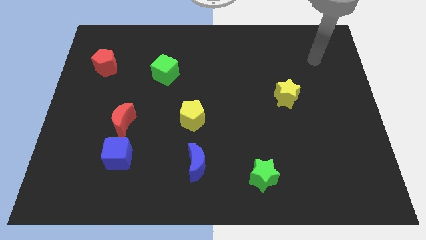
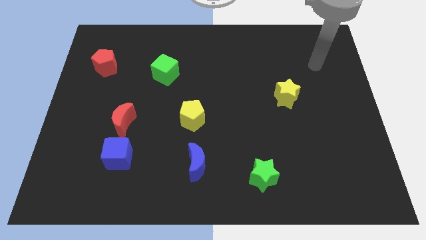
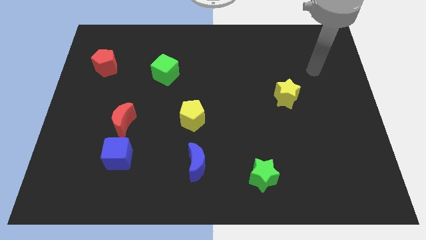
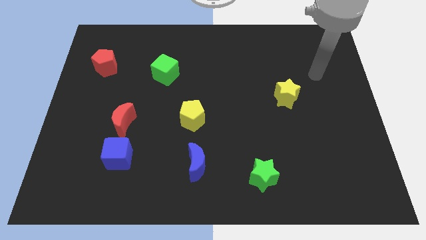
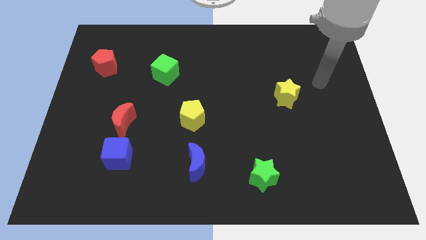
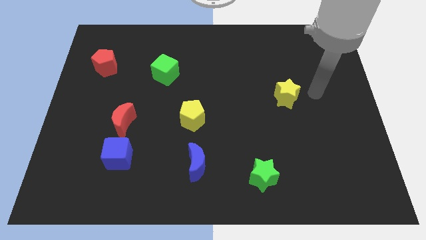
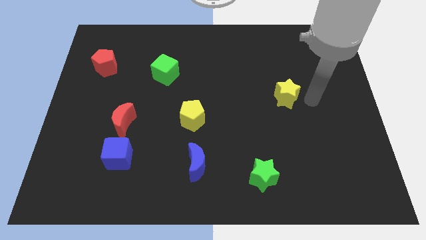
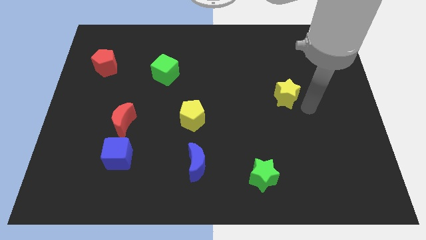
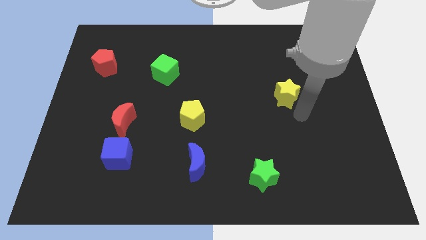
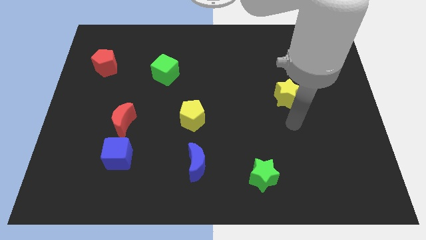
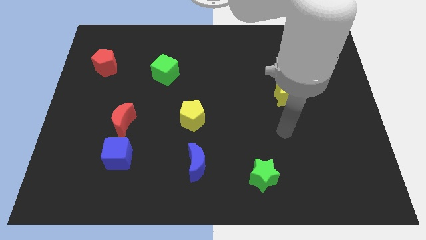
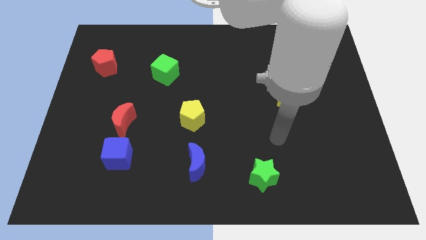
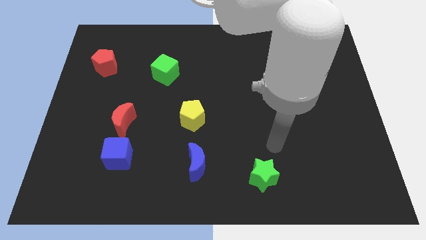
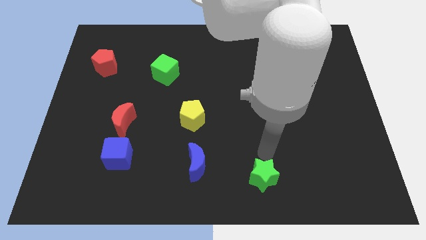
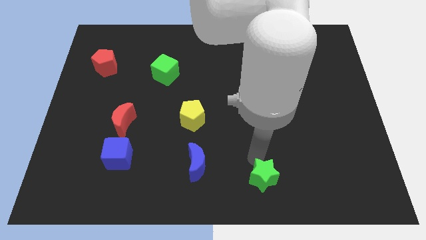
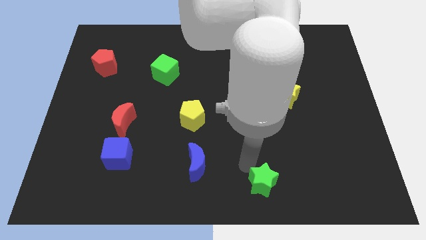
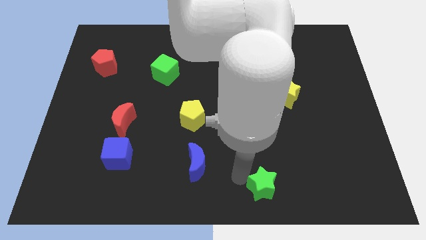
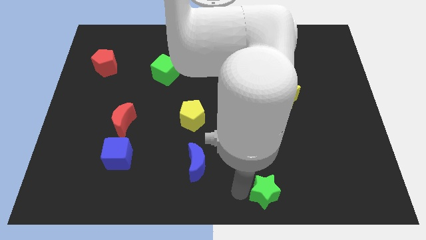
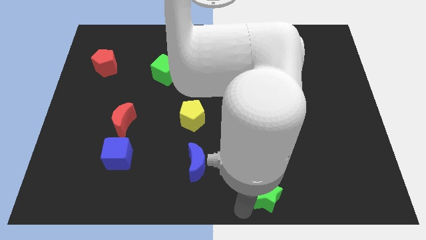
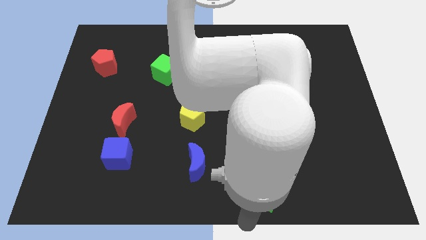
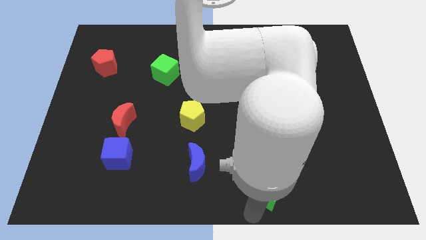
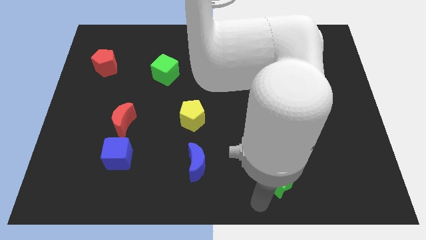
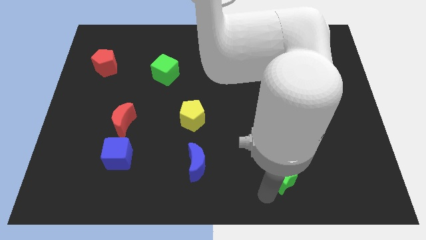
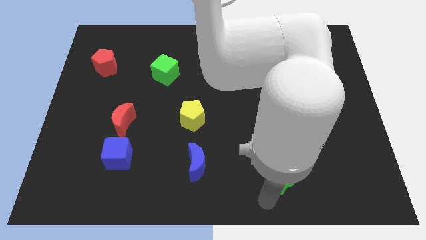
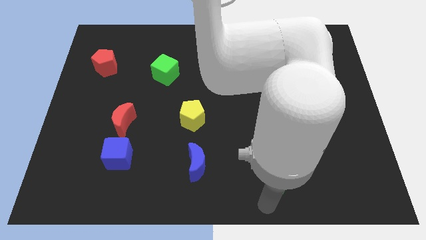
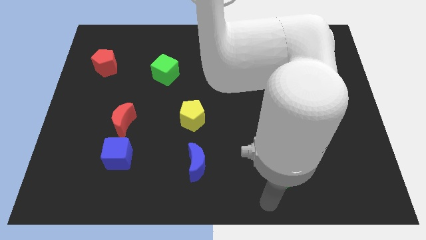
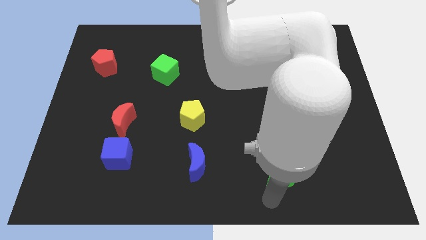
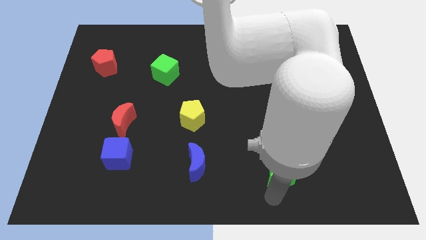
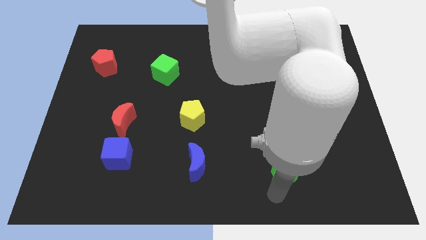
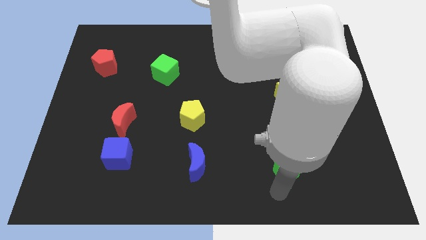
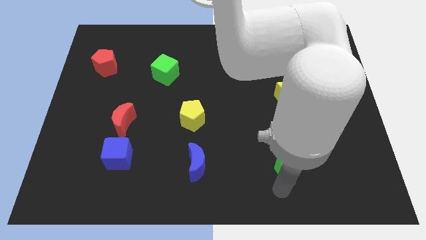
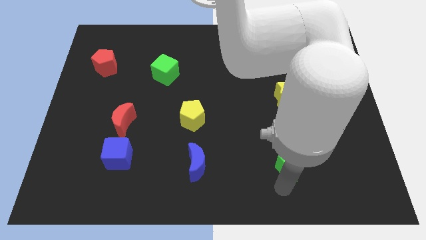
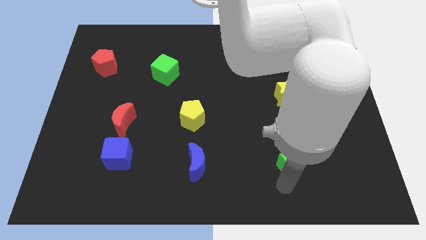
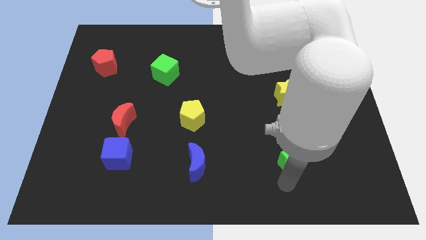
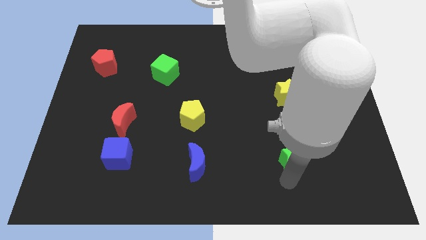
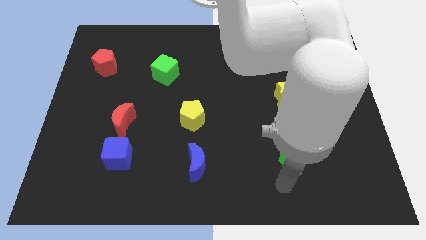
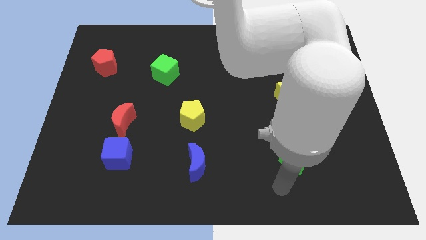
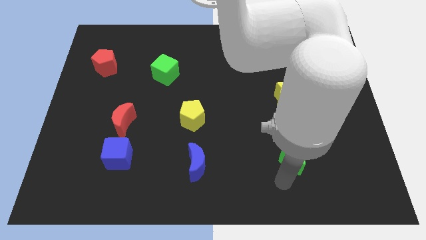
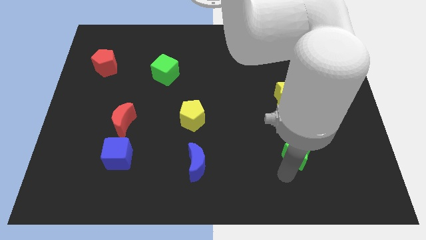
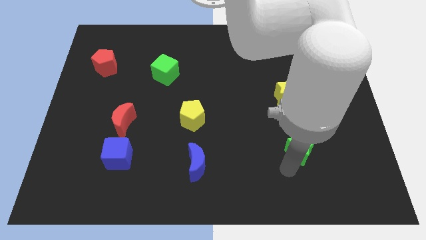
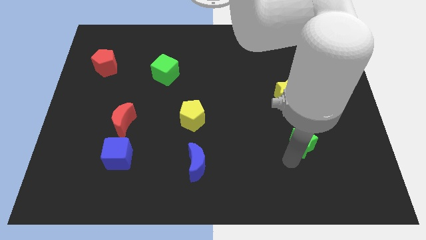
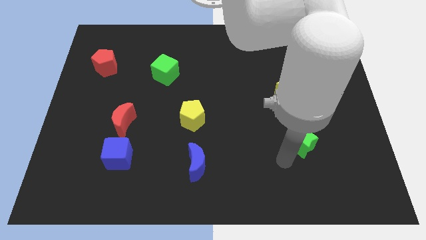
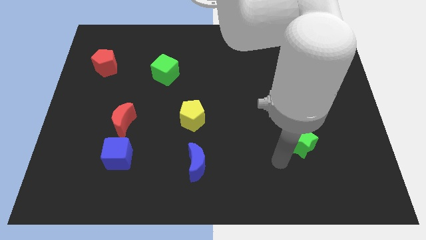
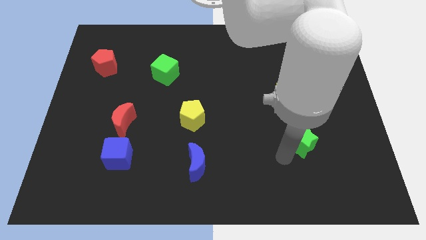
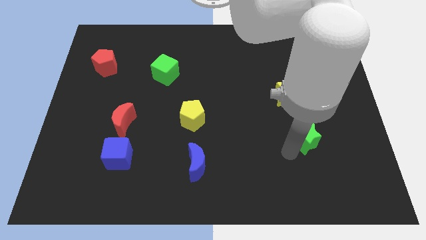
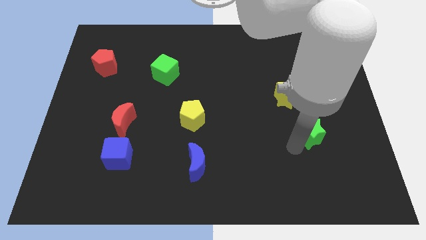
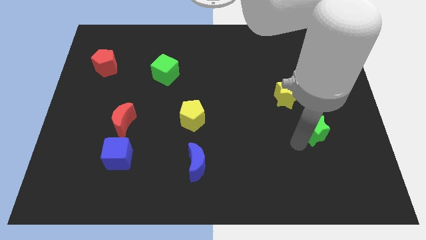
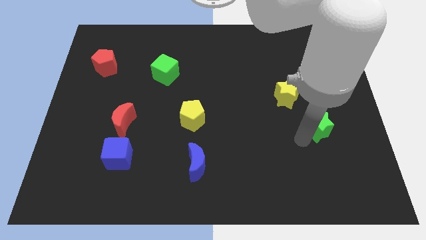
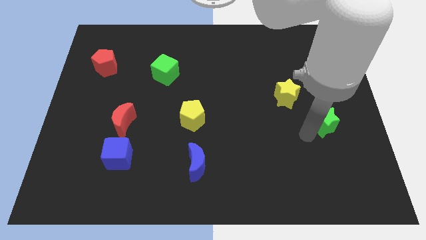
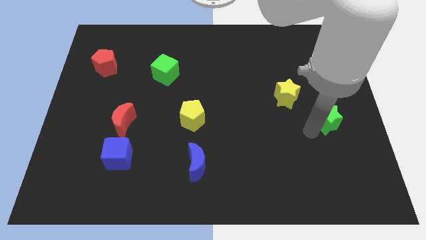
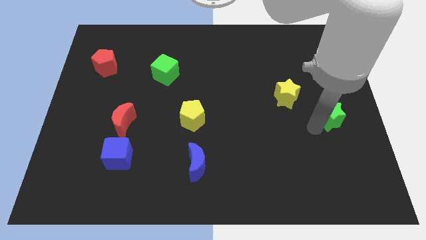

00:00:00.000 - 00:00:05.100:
slide the green star to the center right

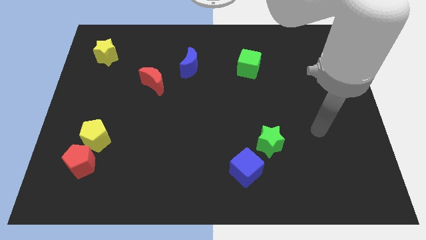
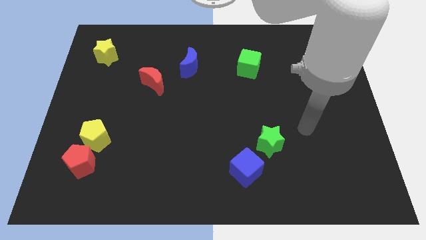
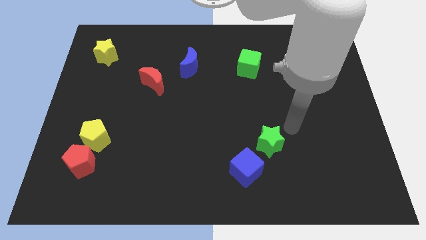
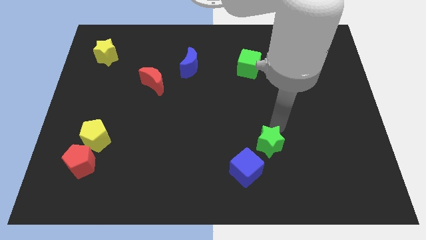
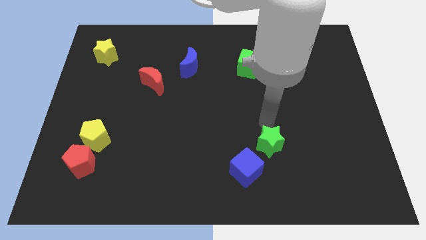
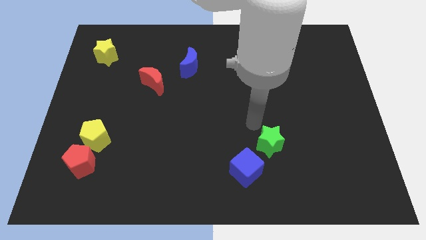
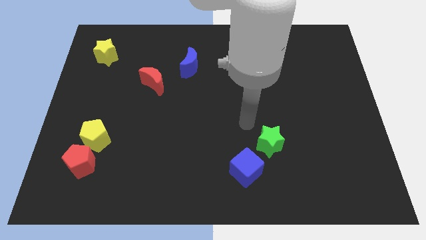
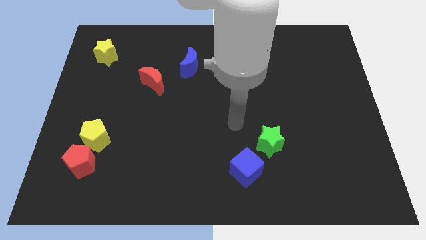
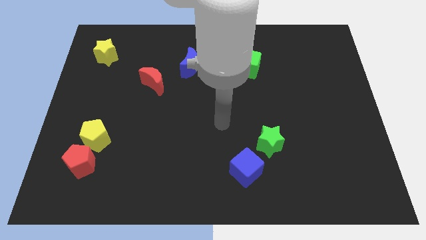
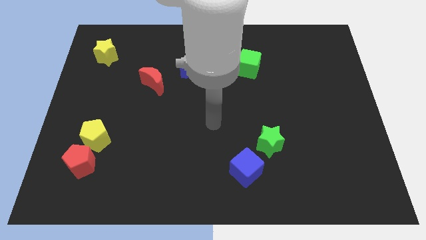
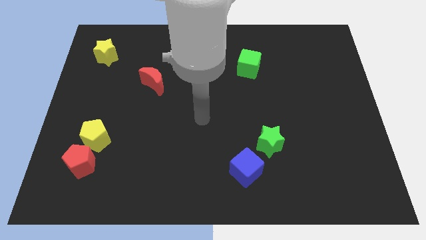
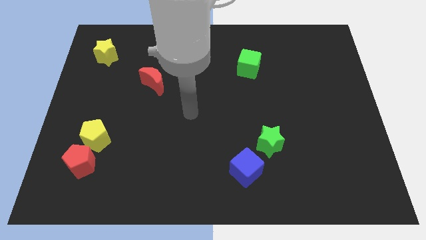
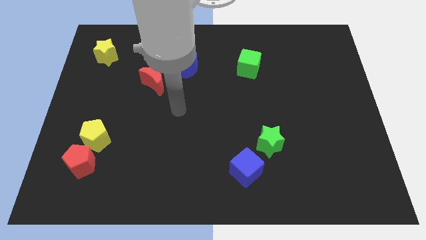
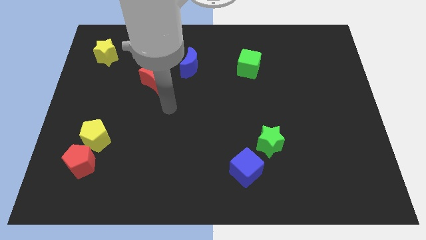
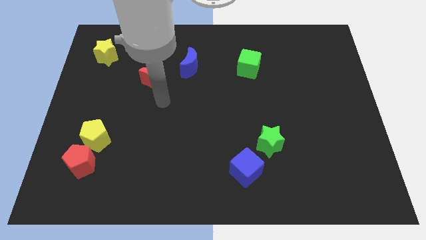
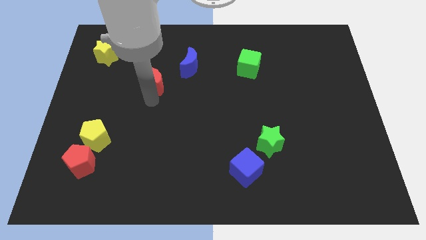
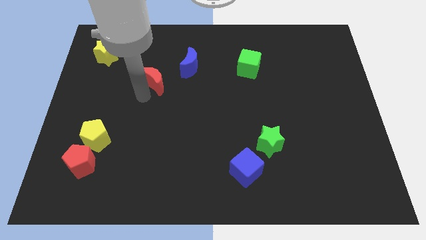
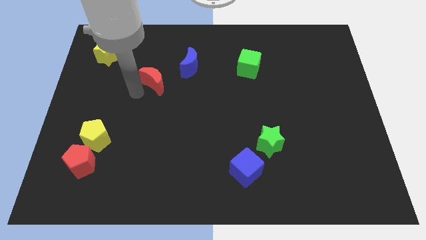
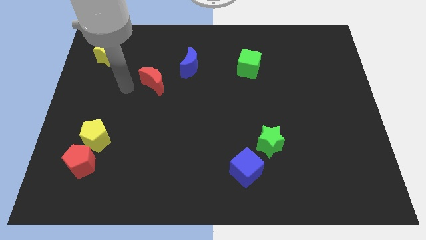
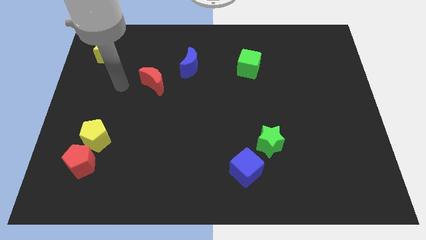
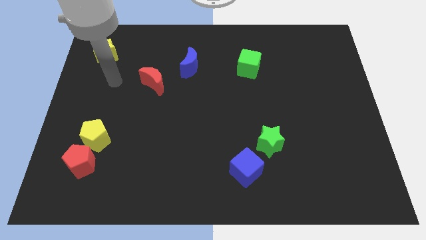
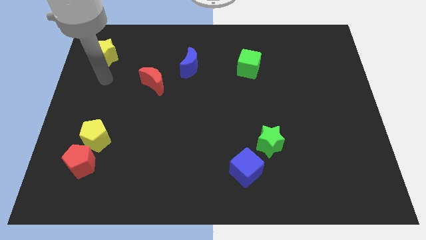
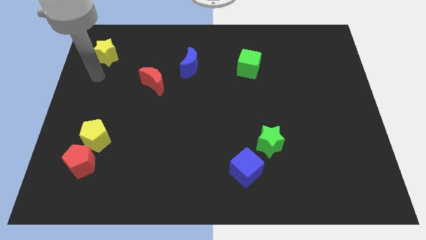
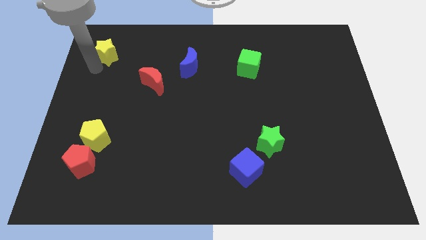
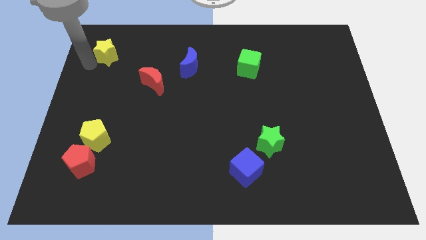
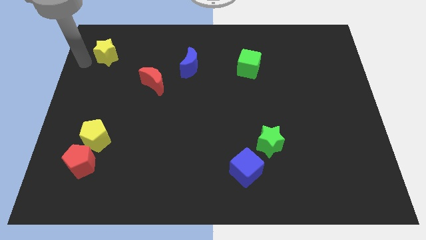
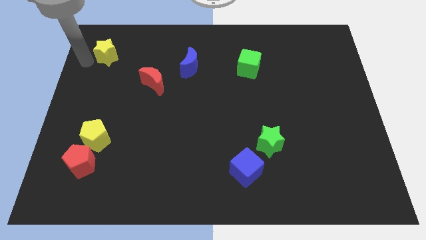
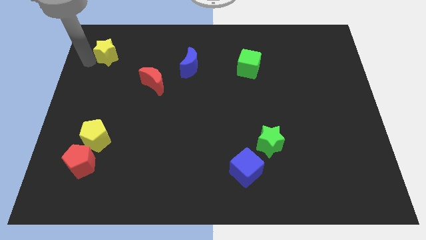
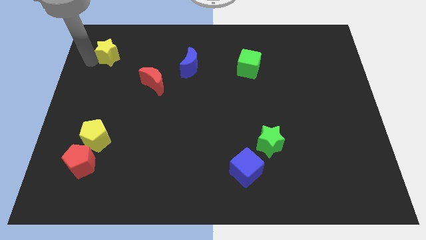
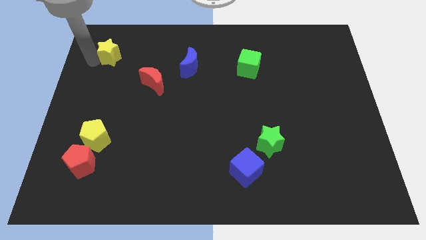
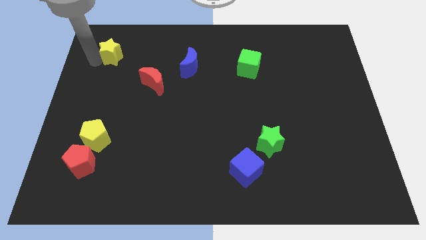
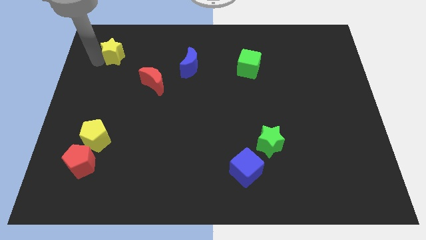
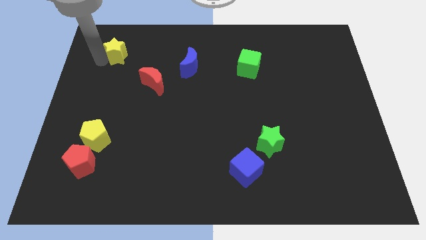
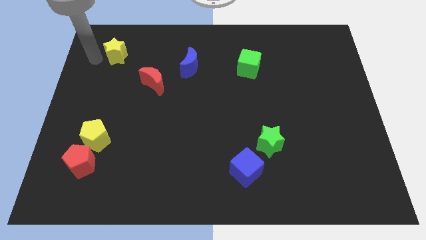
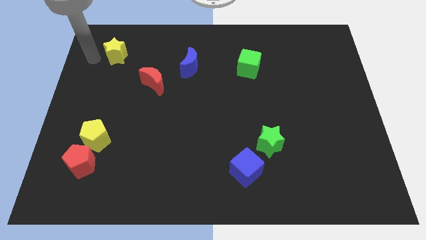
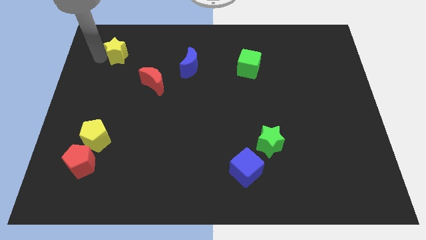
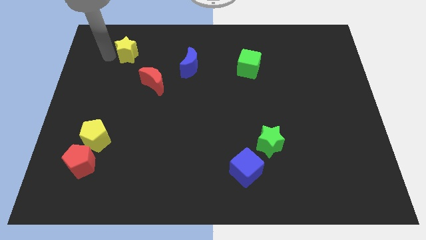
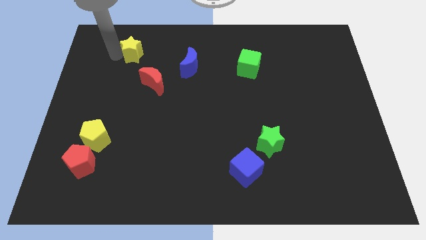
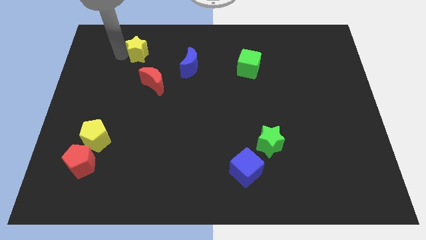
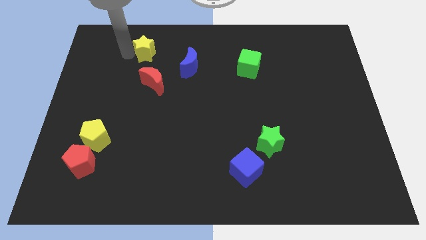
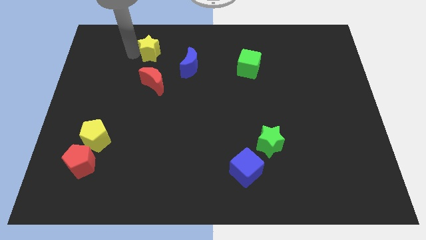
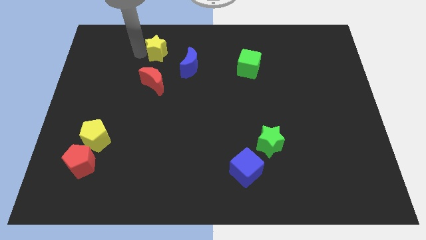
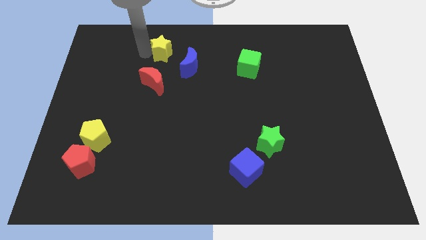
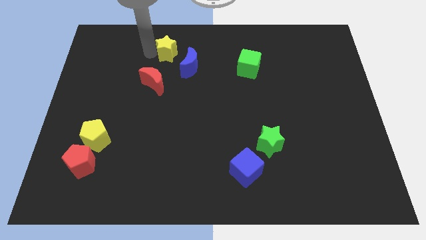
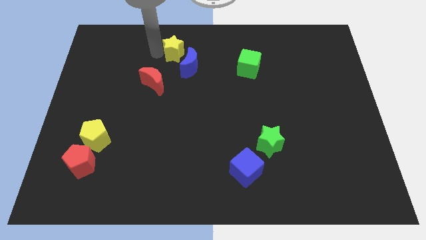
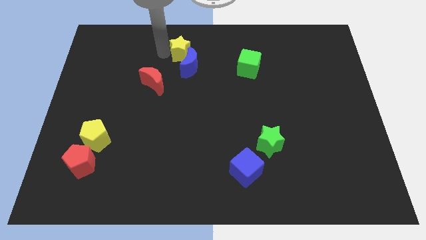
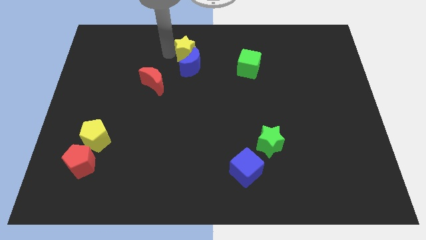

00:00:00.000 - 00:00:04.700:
put the yellow star to the top
